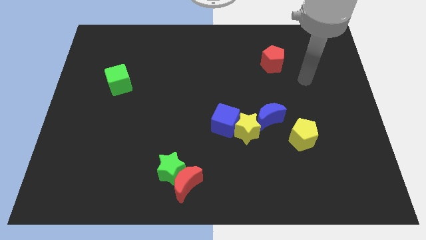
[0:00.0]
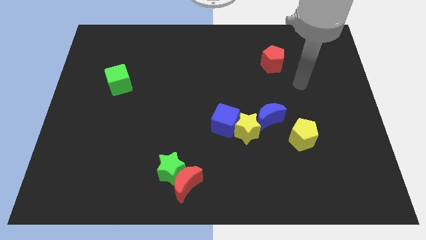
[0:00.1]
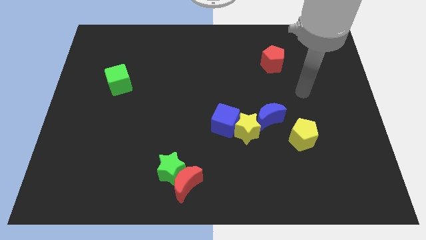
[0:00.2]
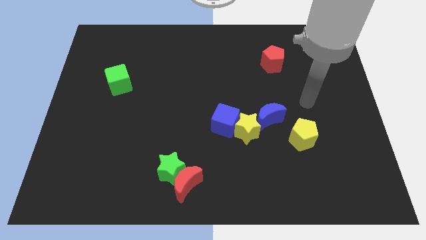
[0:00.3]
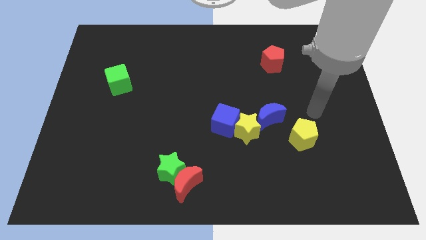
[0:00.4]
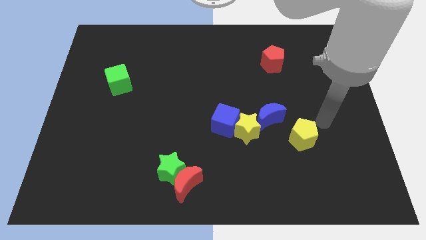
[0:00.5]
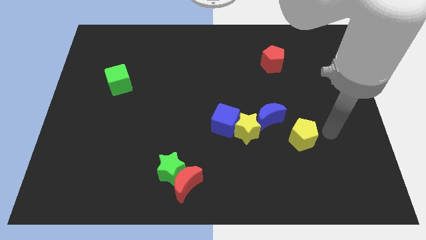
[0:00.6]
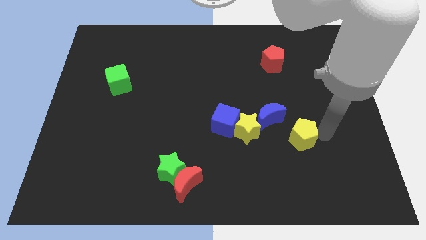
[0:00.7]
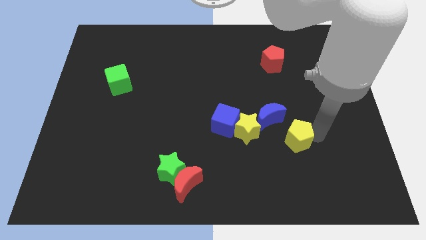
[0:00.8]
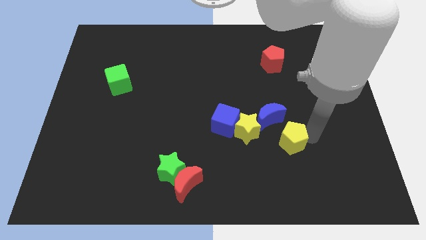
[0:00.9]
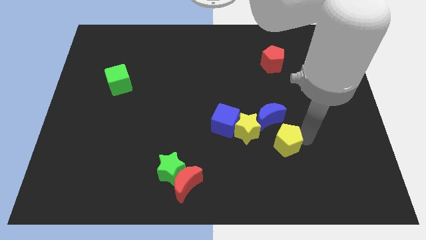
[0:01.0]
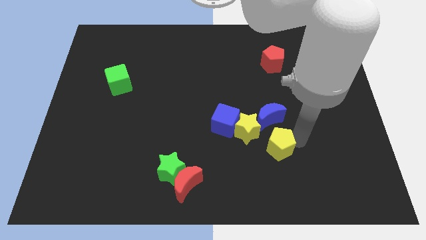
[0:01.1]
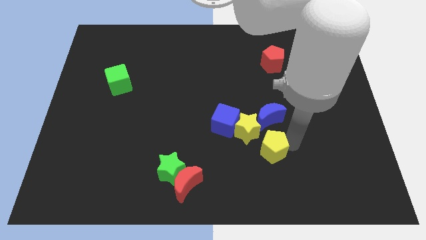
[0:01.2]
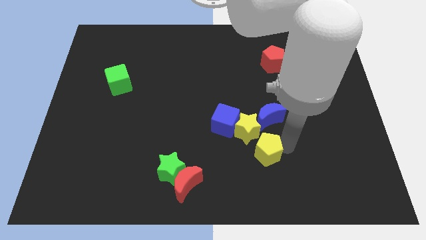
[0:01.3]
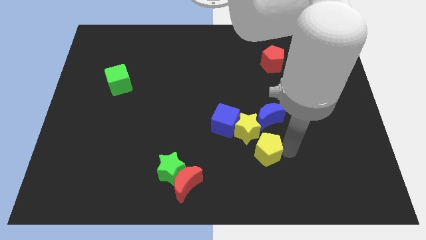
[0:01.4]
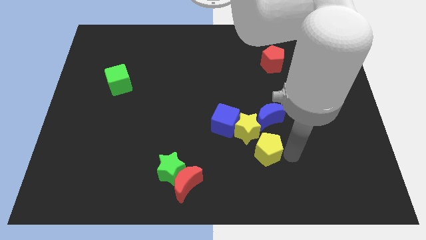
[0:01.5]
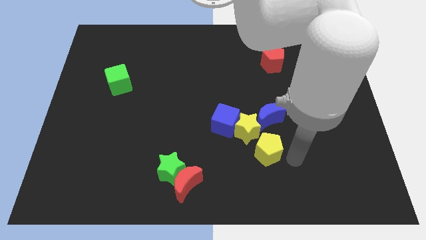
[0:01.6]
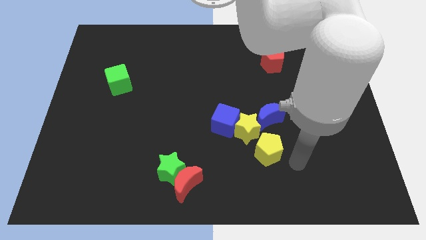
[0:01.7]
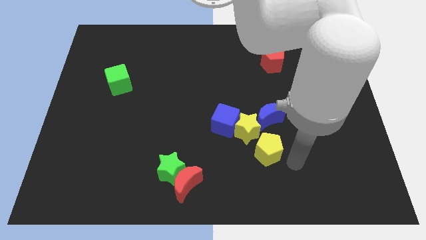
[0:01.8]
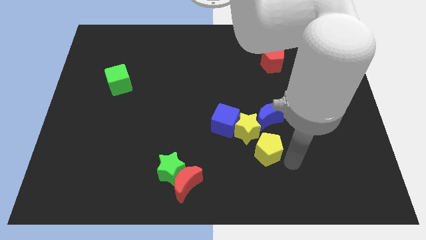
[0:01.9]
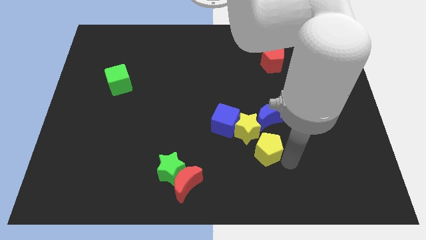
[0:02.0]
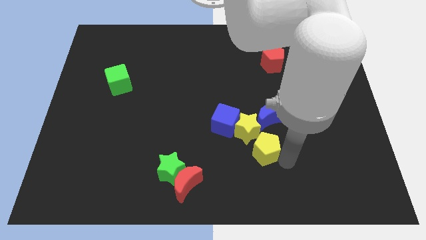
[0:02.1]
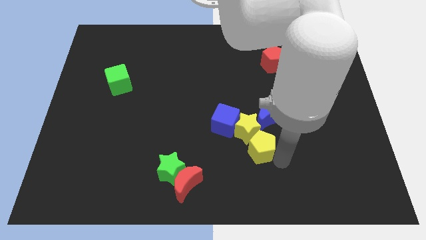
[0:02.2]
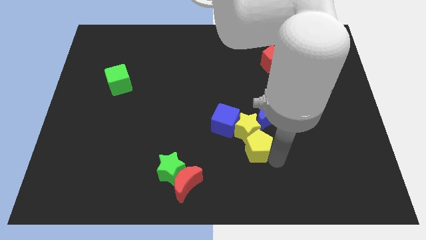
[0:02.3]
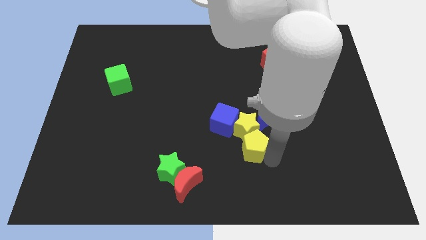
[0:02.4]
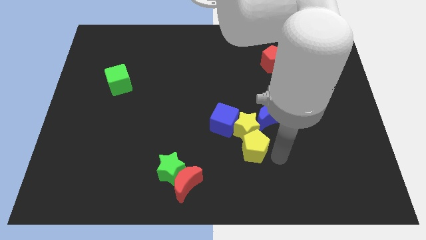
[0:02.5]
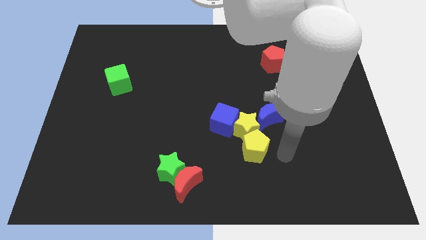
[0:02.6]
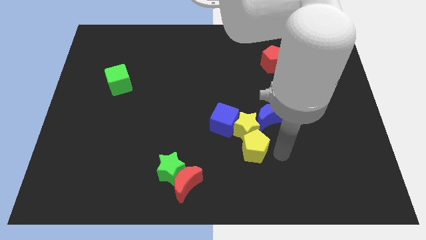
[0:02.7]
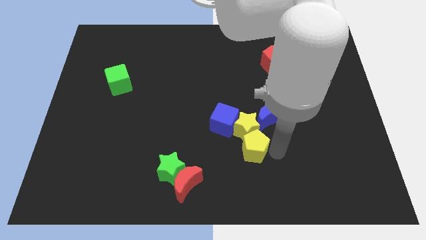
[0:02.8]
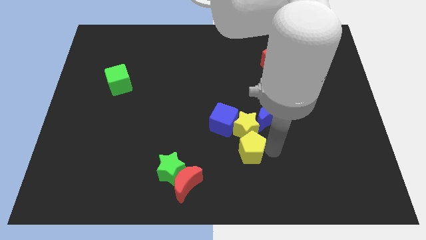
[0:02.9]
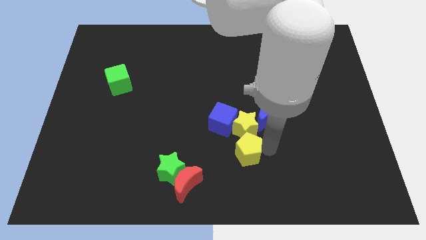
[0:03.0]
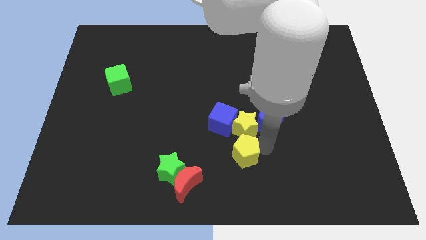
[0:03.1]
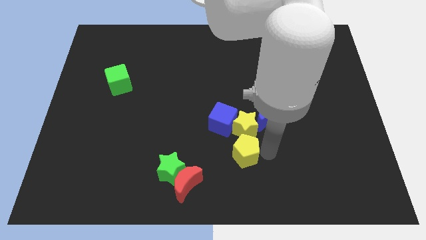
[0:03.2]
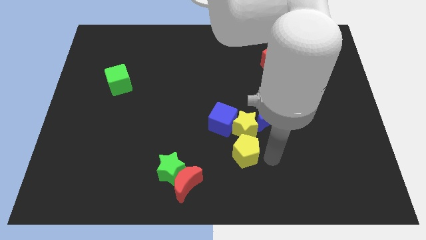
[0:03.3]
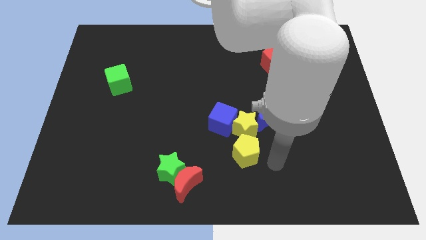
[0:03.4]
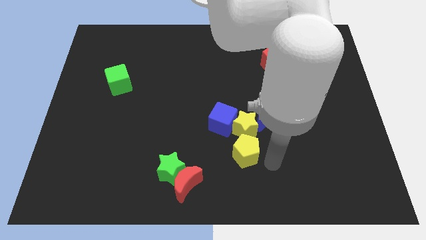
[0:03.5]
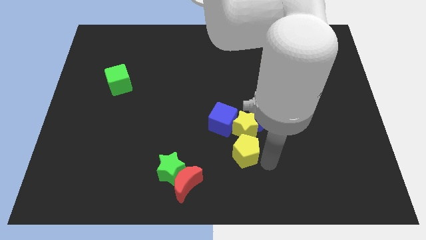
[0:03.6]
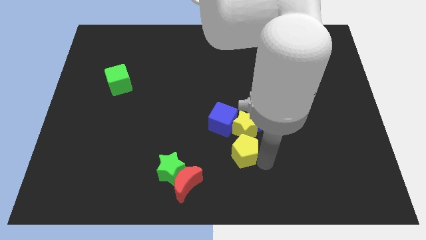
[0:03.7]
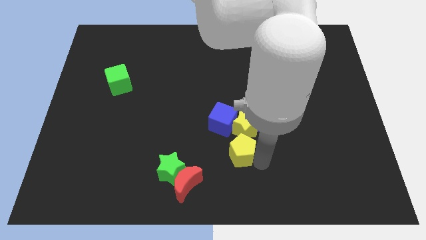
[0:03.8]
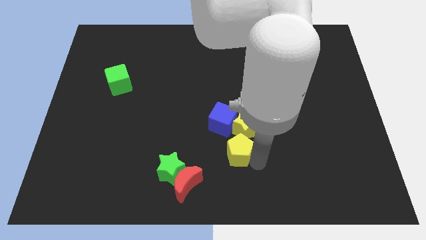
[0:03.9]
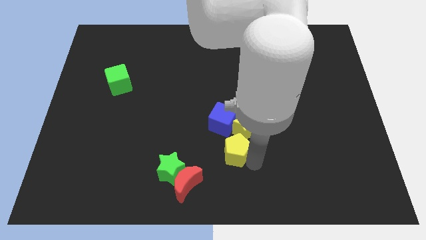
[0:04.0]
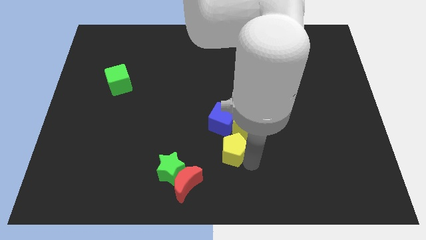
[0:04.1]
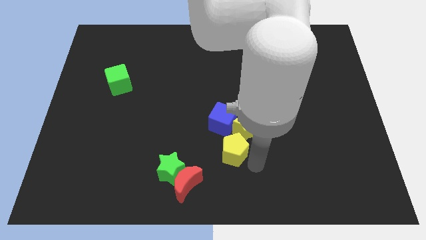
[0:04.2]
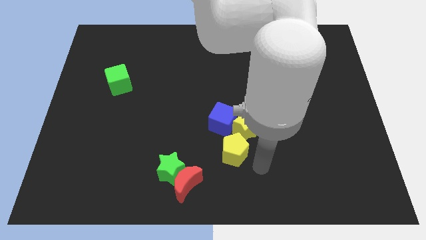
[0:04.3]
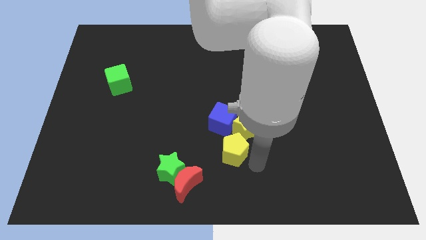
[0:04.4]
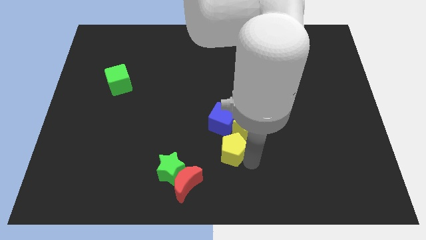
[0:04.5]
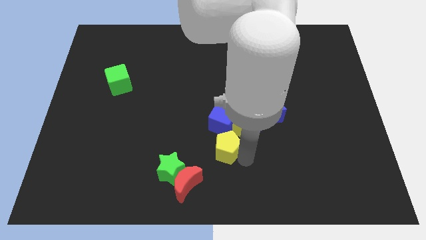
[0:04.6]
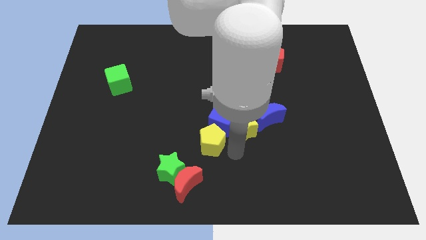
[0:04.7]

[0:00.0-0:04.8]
move the yellow pentagon to the left

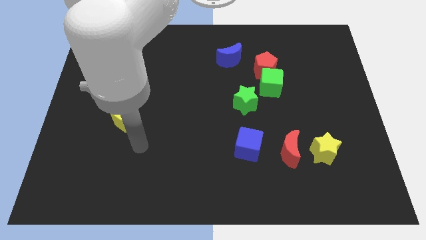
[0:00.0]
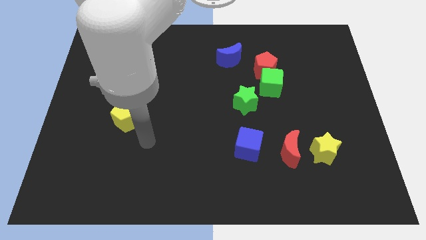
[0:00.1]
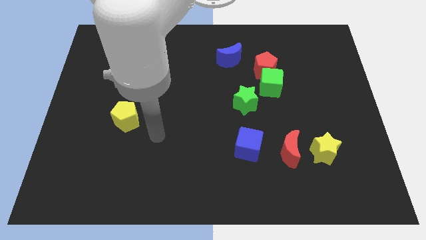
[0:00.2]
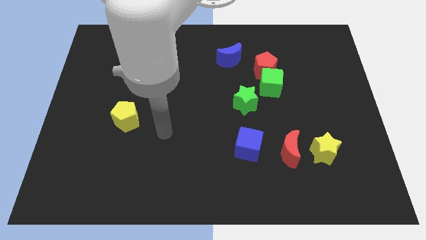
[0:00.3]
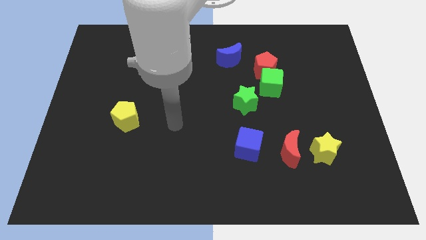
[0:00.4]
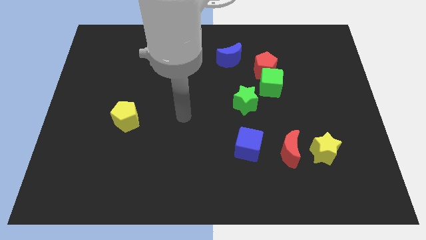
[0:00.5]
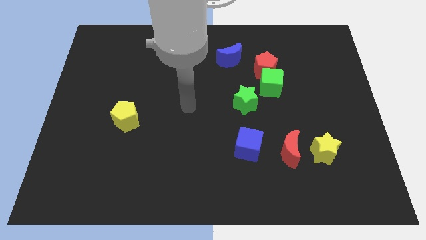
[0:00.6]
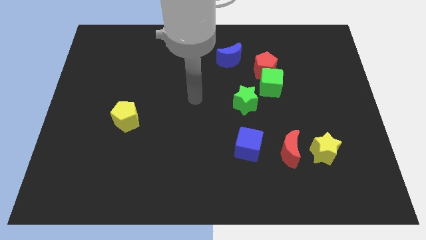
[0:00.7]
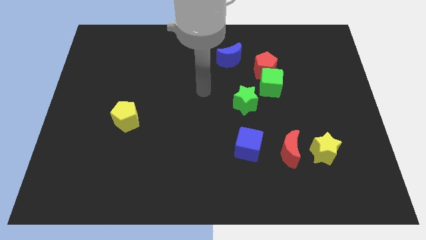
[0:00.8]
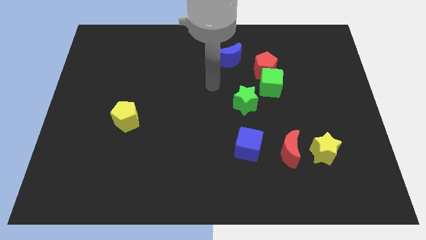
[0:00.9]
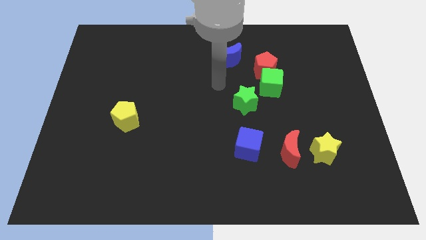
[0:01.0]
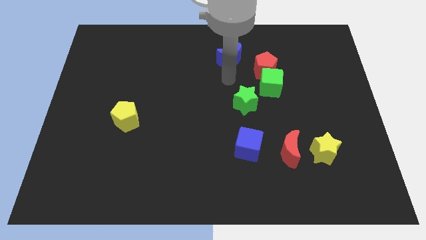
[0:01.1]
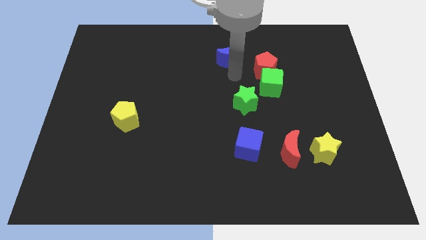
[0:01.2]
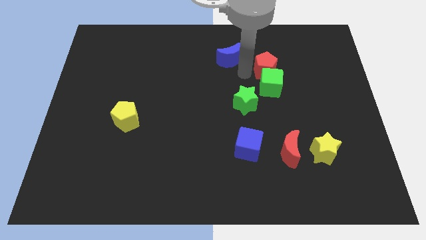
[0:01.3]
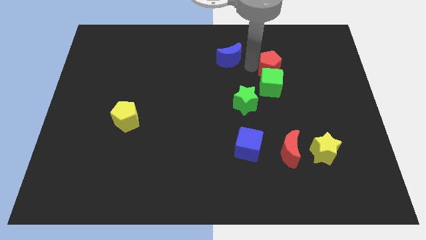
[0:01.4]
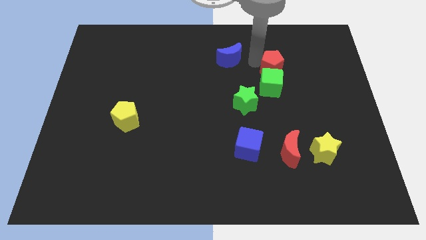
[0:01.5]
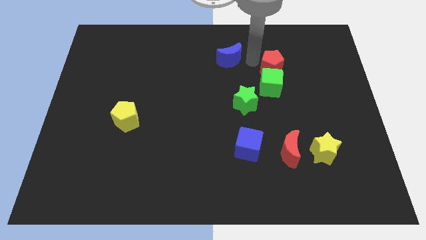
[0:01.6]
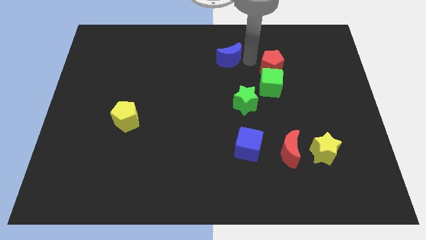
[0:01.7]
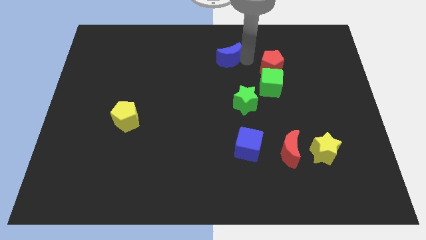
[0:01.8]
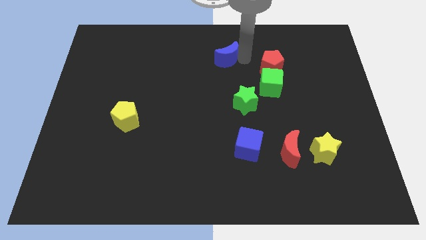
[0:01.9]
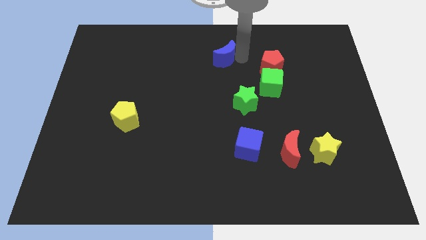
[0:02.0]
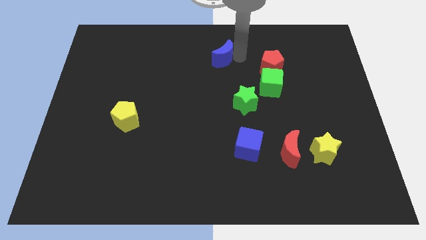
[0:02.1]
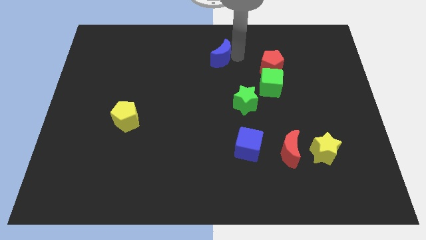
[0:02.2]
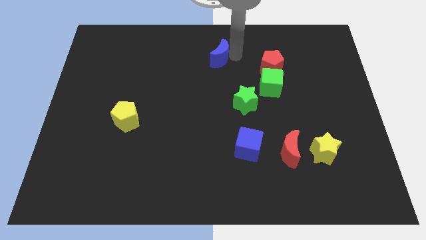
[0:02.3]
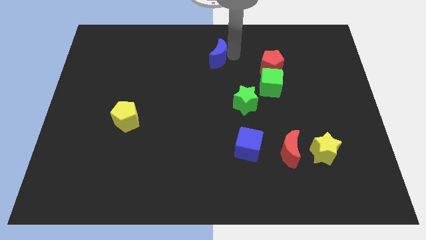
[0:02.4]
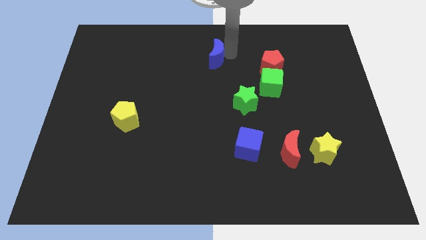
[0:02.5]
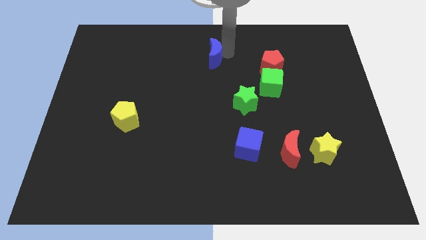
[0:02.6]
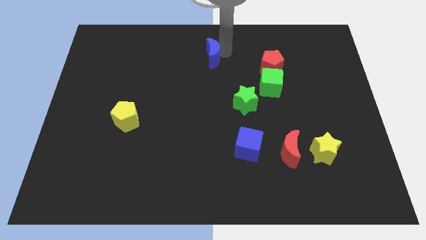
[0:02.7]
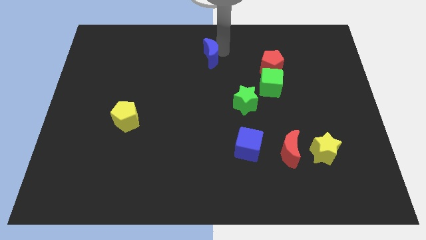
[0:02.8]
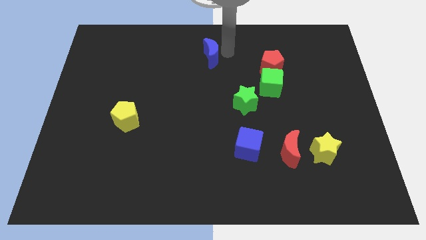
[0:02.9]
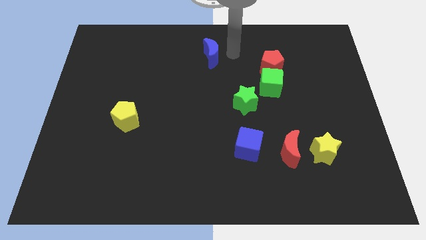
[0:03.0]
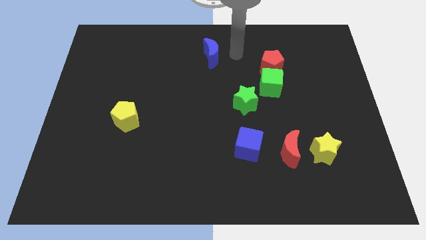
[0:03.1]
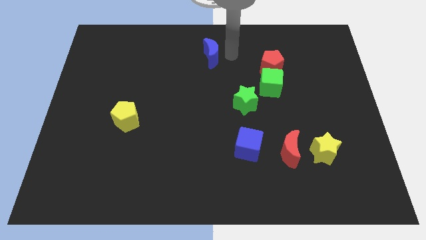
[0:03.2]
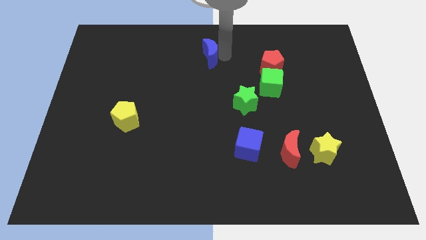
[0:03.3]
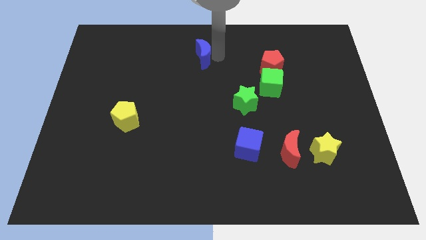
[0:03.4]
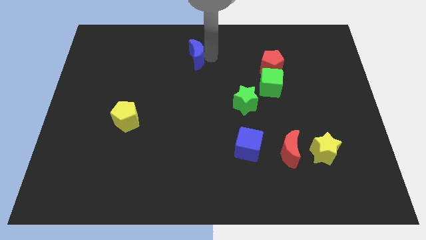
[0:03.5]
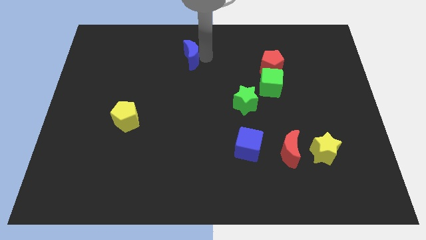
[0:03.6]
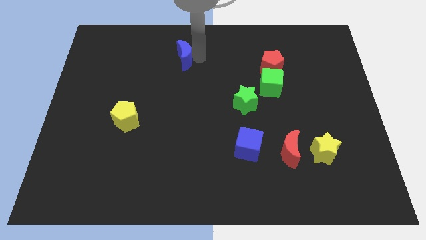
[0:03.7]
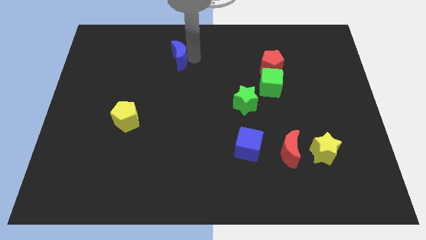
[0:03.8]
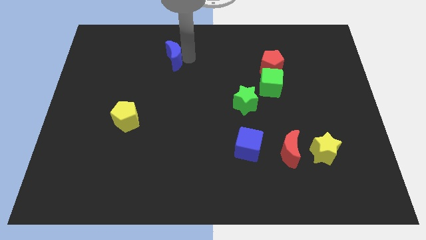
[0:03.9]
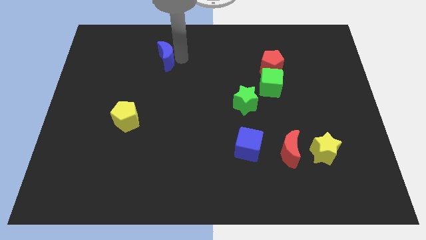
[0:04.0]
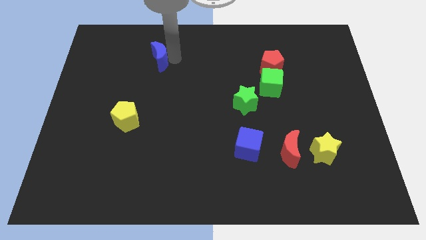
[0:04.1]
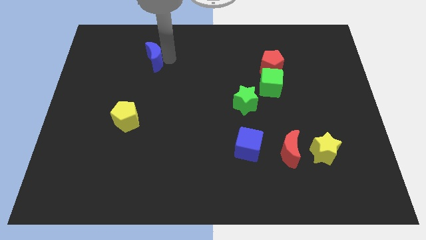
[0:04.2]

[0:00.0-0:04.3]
push the blue moon to the left
